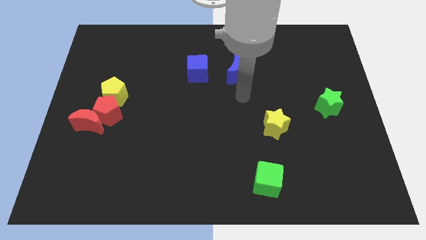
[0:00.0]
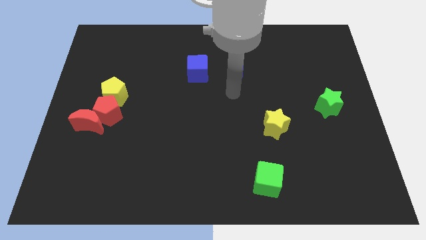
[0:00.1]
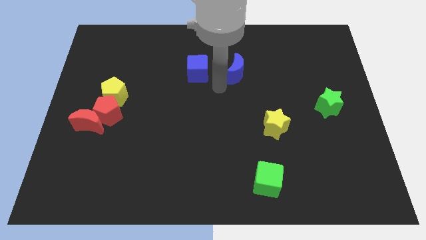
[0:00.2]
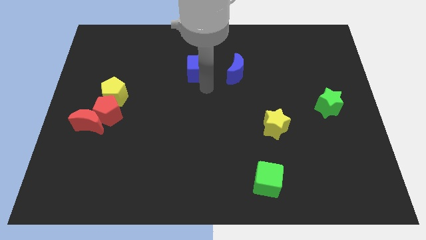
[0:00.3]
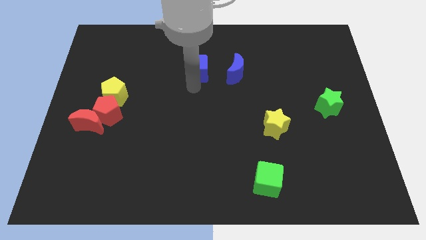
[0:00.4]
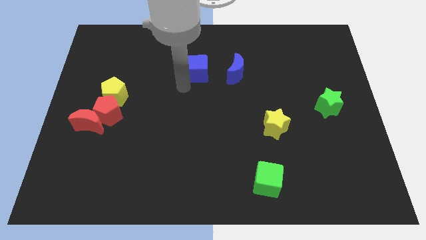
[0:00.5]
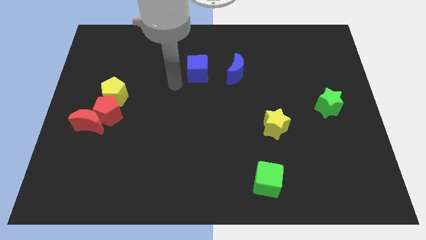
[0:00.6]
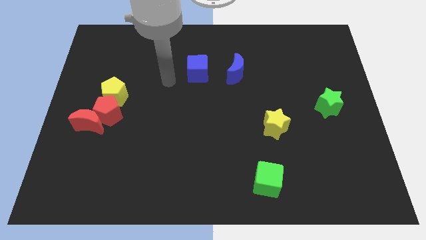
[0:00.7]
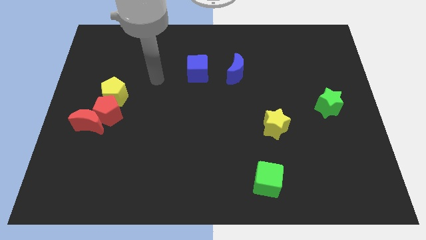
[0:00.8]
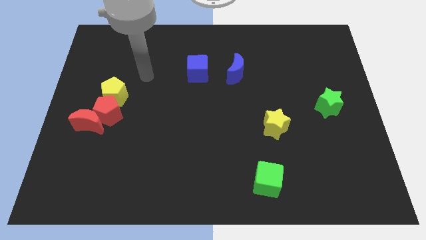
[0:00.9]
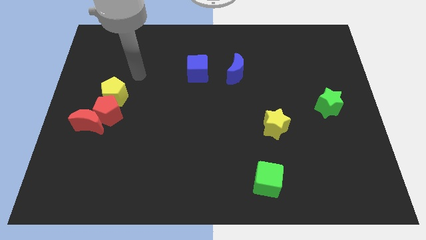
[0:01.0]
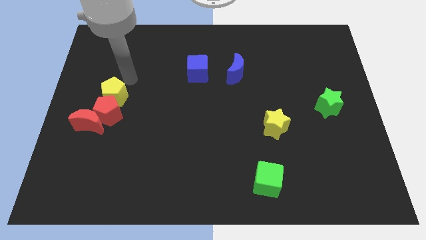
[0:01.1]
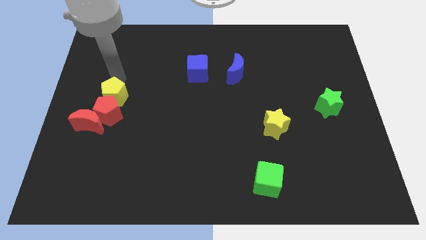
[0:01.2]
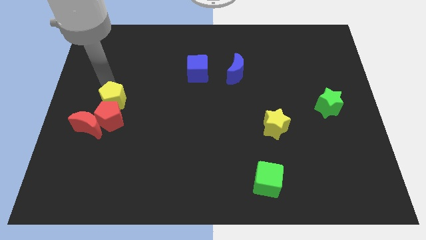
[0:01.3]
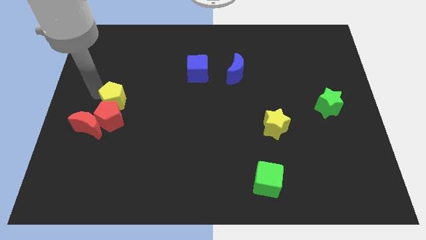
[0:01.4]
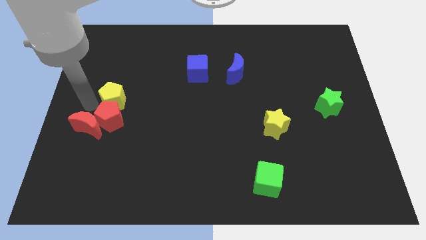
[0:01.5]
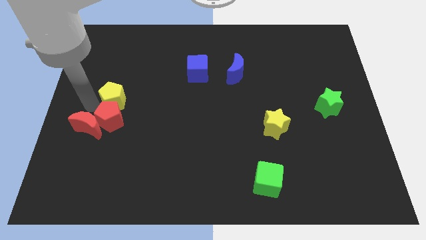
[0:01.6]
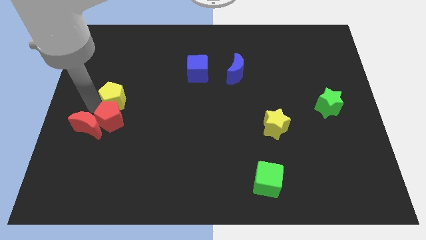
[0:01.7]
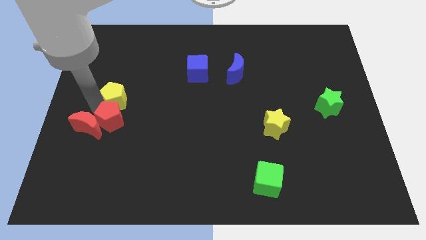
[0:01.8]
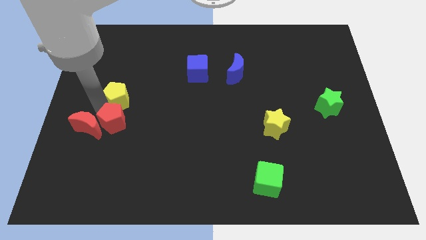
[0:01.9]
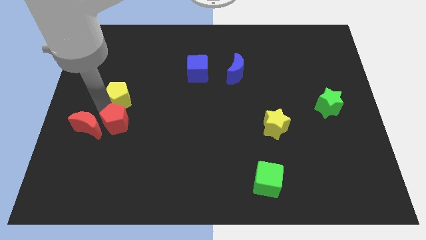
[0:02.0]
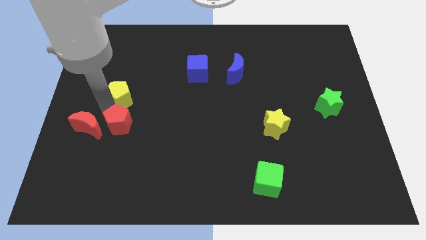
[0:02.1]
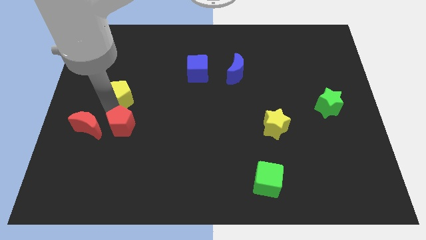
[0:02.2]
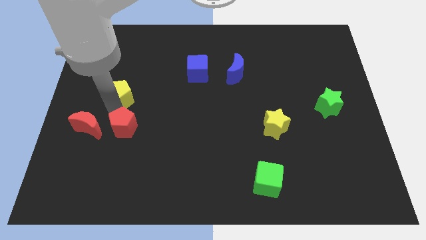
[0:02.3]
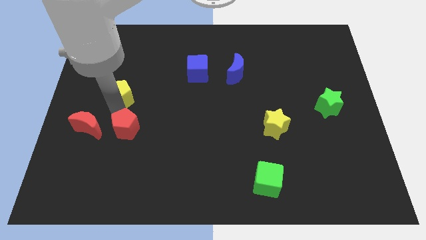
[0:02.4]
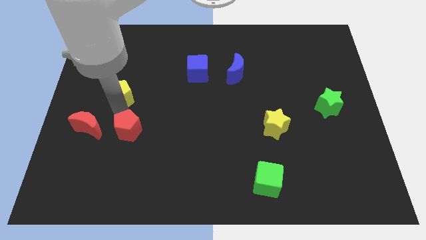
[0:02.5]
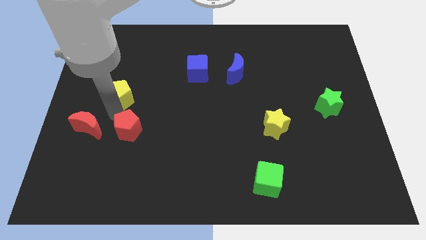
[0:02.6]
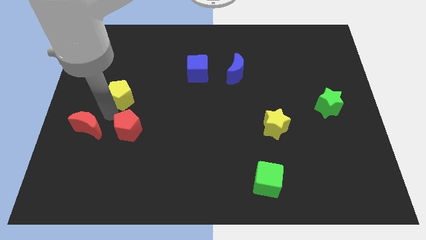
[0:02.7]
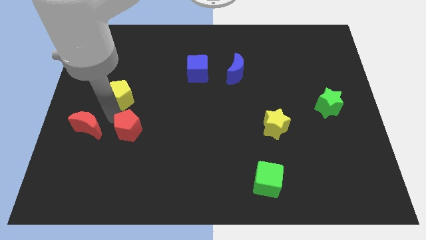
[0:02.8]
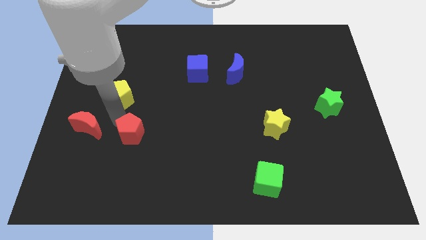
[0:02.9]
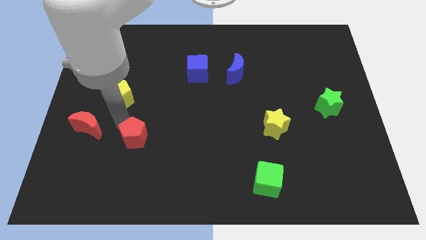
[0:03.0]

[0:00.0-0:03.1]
move the red pentagon away from the red moon and yellow pentagon

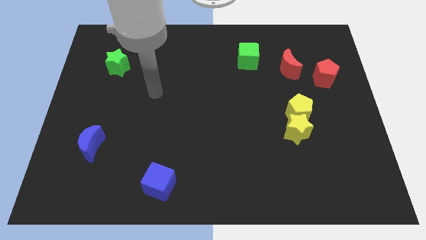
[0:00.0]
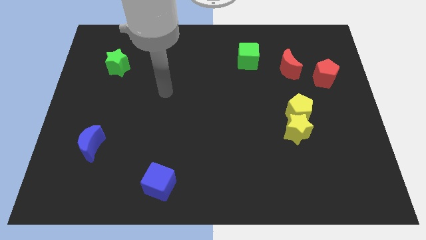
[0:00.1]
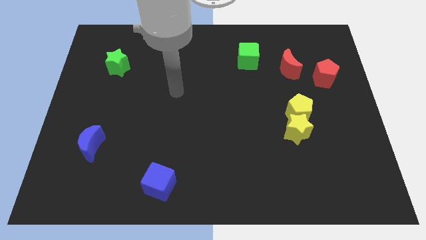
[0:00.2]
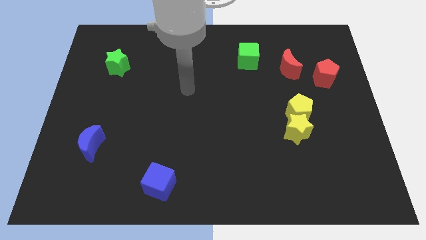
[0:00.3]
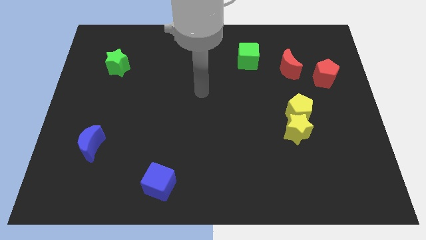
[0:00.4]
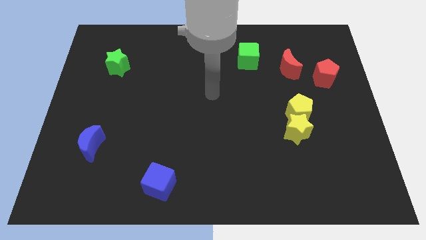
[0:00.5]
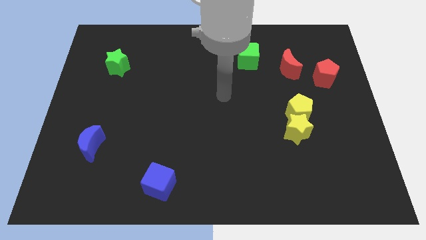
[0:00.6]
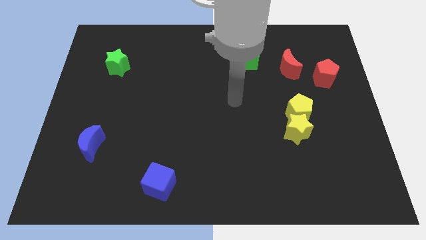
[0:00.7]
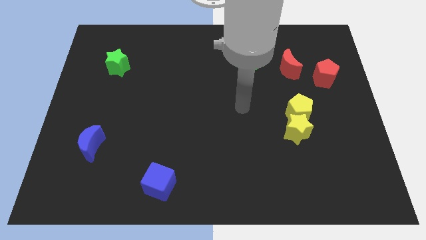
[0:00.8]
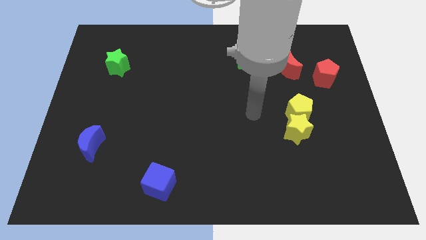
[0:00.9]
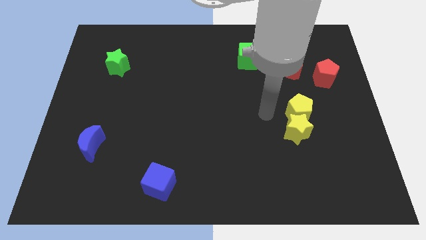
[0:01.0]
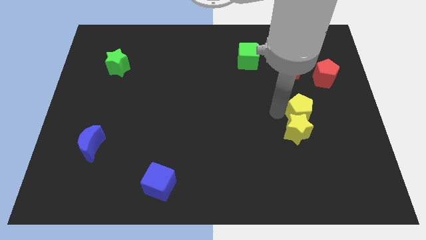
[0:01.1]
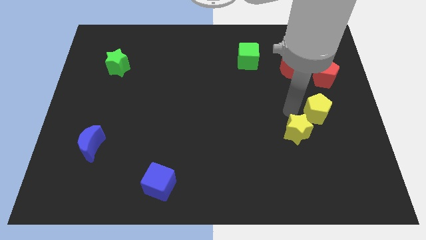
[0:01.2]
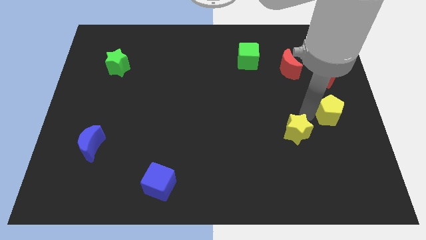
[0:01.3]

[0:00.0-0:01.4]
separate the yellow star from the yellow pentagon

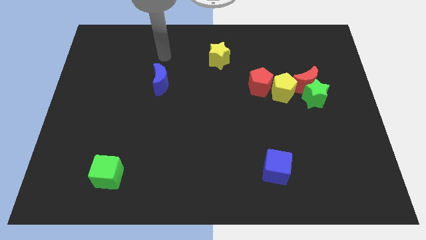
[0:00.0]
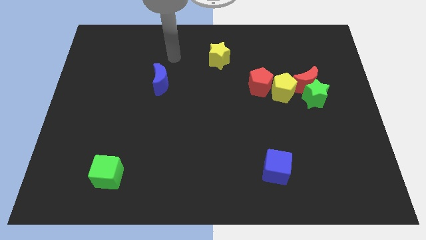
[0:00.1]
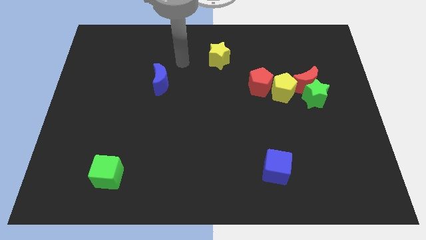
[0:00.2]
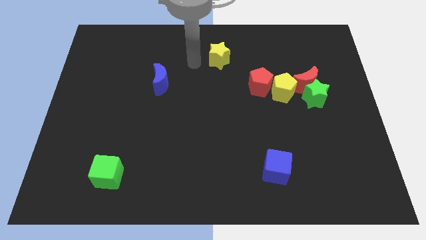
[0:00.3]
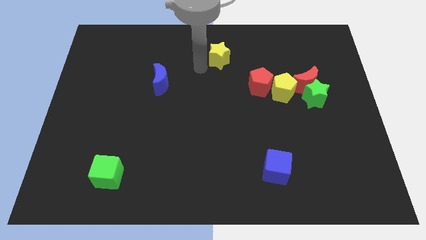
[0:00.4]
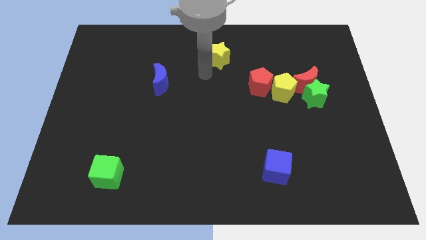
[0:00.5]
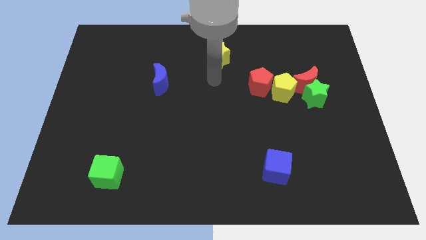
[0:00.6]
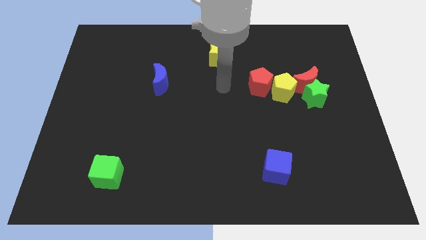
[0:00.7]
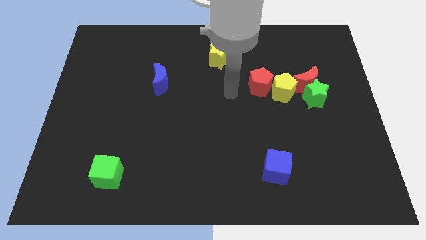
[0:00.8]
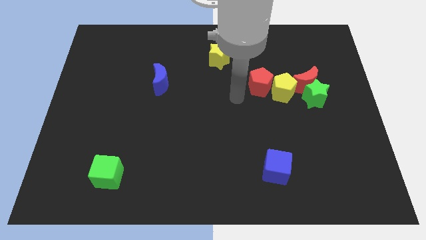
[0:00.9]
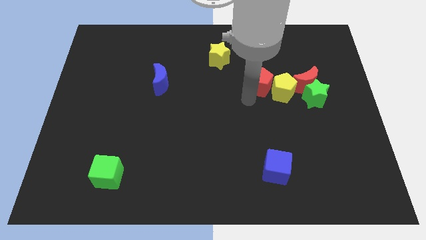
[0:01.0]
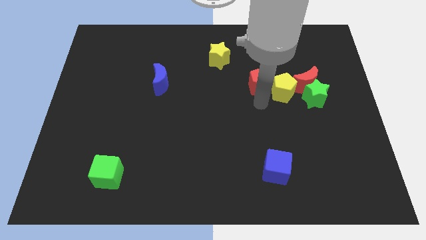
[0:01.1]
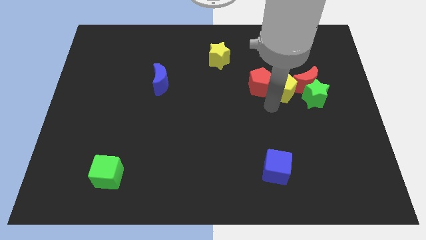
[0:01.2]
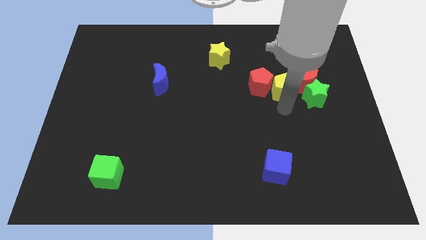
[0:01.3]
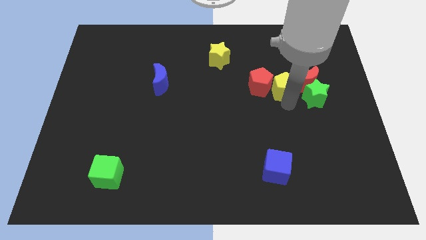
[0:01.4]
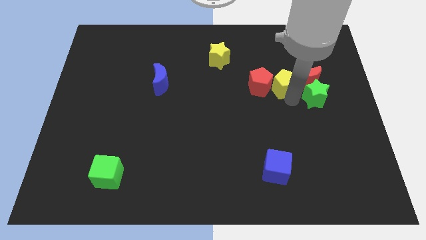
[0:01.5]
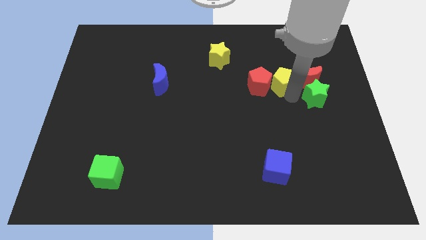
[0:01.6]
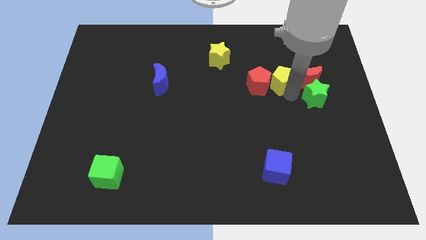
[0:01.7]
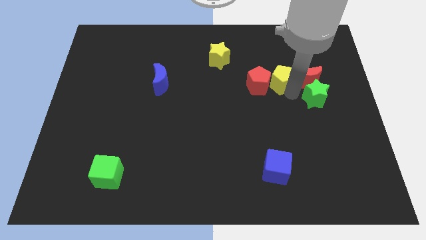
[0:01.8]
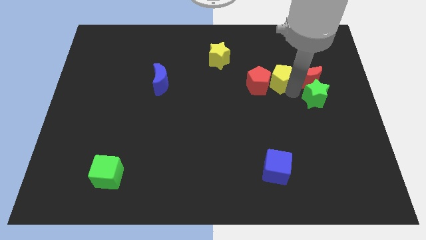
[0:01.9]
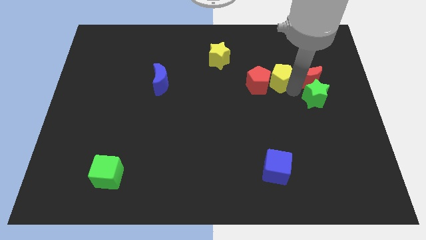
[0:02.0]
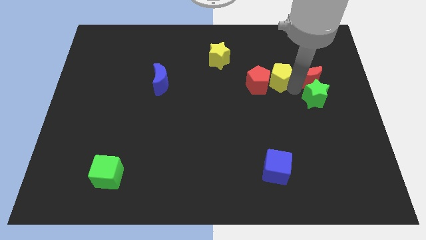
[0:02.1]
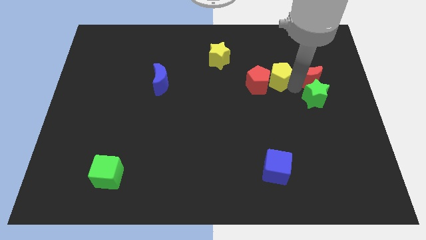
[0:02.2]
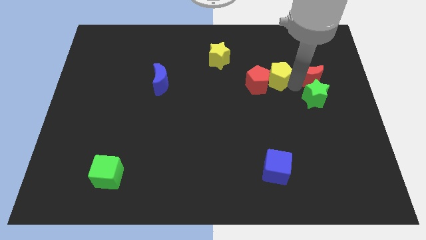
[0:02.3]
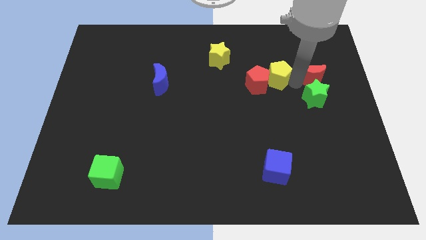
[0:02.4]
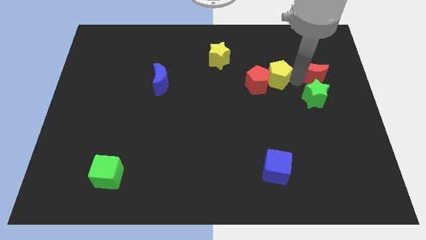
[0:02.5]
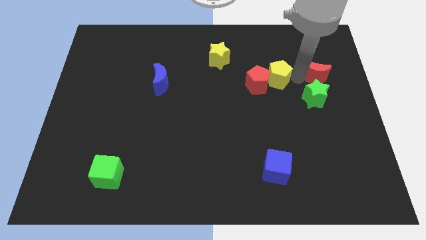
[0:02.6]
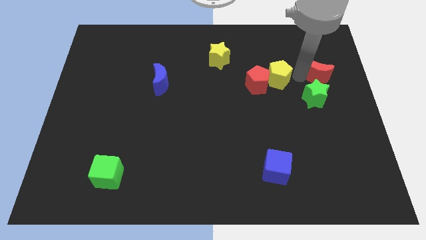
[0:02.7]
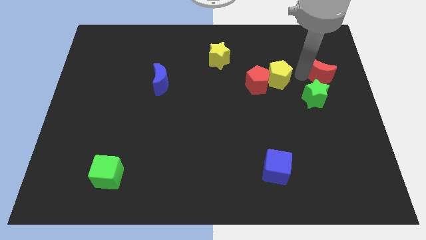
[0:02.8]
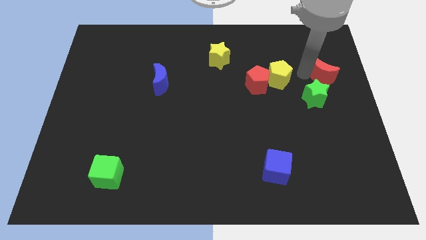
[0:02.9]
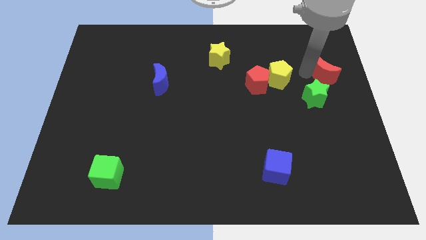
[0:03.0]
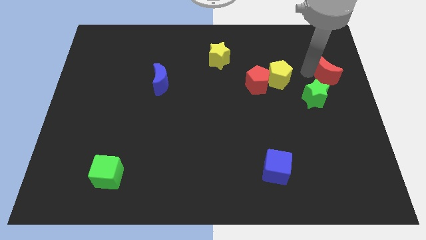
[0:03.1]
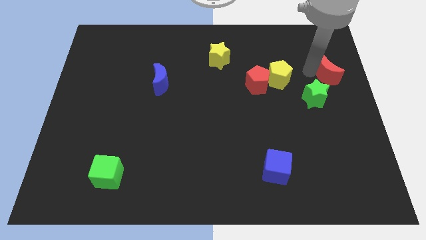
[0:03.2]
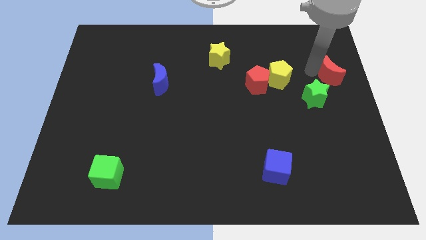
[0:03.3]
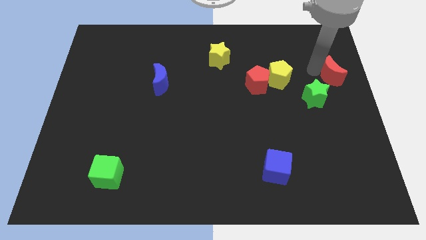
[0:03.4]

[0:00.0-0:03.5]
move the red moon away from the green star and yellow pentagon

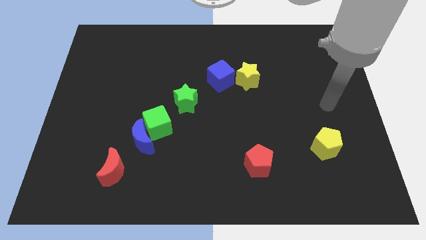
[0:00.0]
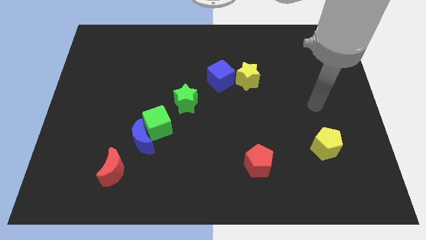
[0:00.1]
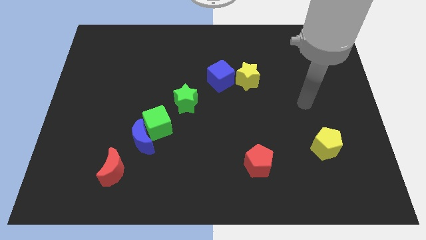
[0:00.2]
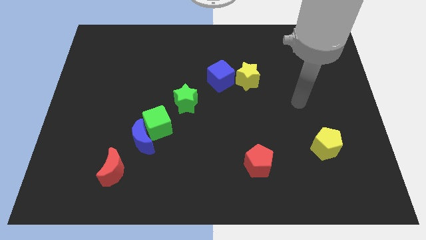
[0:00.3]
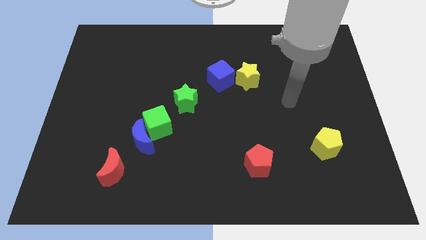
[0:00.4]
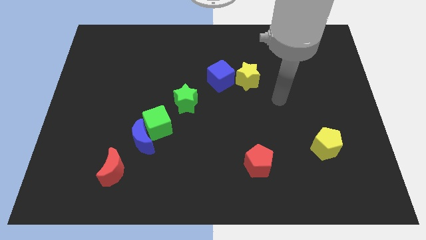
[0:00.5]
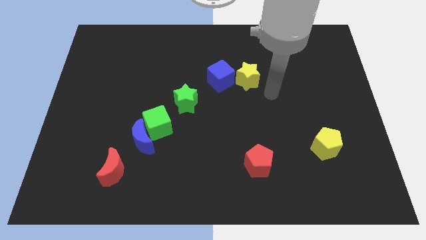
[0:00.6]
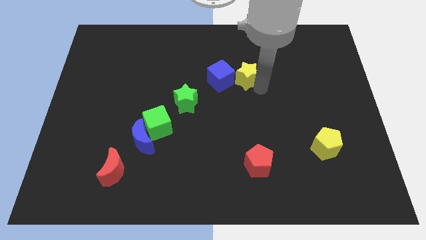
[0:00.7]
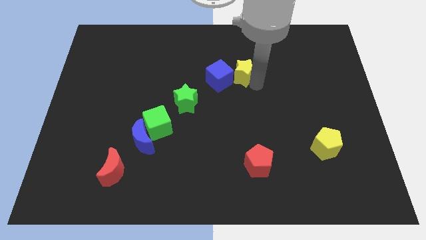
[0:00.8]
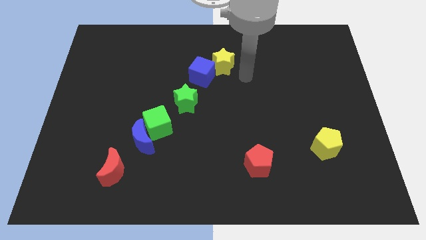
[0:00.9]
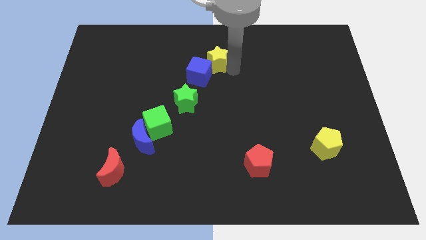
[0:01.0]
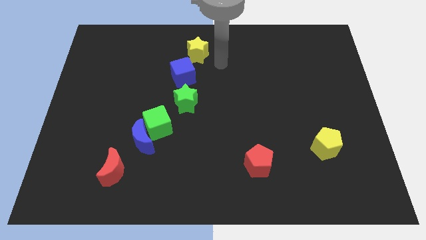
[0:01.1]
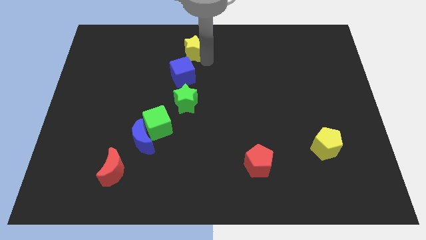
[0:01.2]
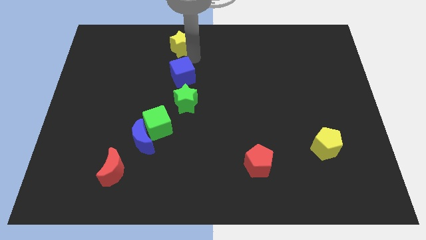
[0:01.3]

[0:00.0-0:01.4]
separate the blue cube from the yellow star
